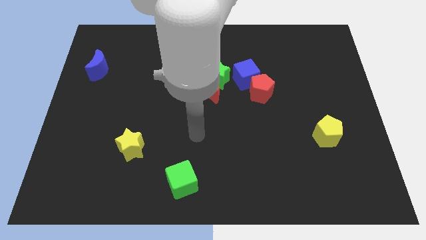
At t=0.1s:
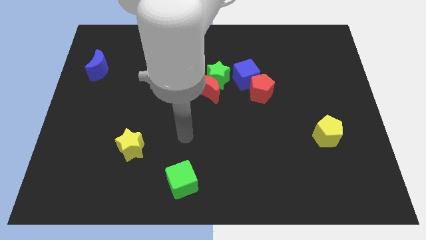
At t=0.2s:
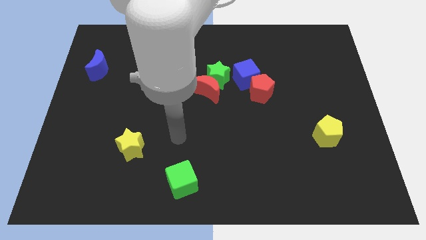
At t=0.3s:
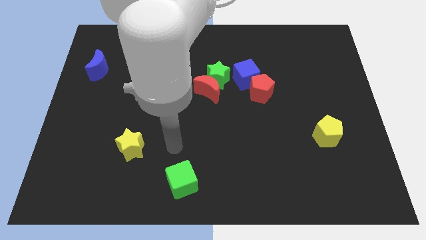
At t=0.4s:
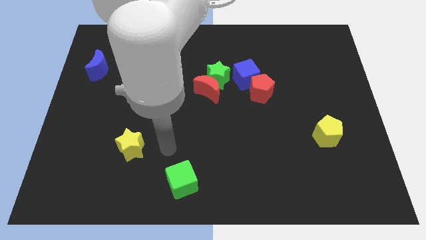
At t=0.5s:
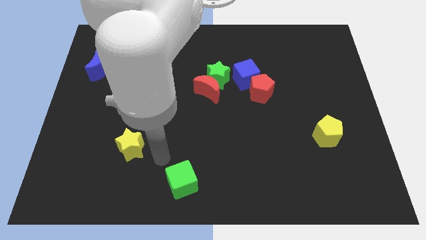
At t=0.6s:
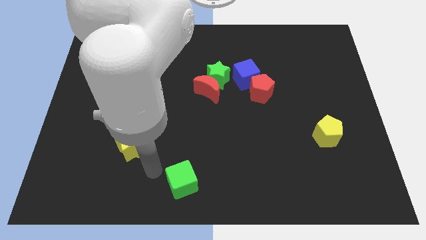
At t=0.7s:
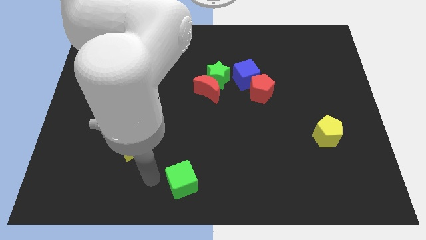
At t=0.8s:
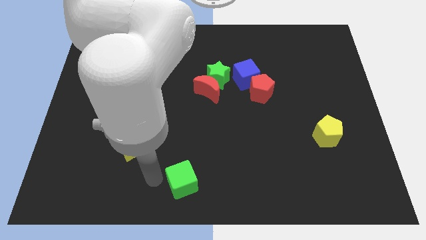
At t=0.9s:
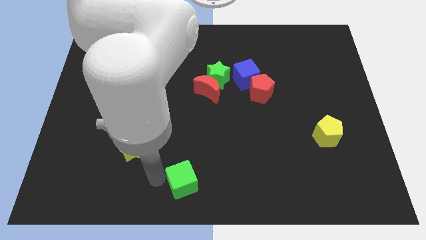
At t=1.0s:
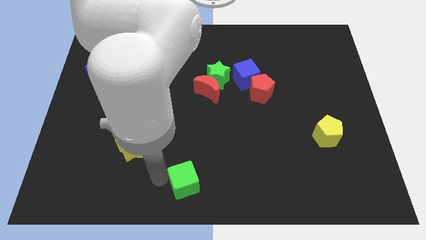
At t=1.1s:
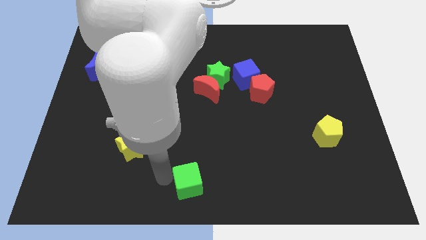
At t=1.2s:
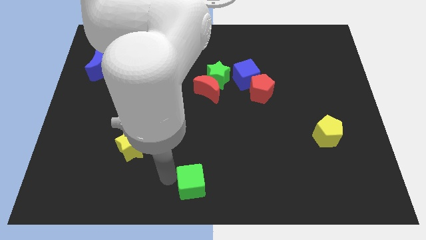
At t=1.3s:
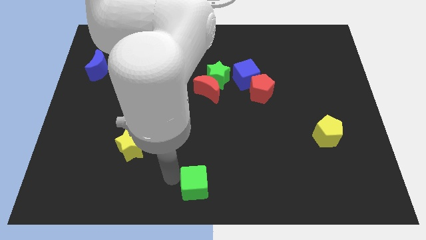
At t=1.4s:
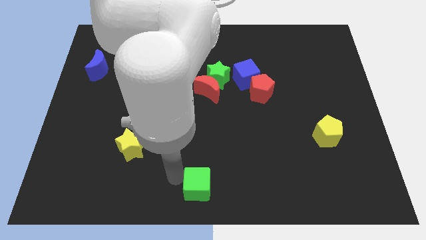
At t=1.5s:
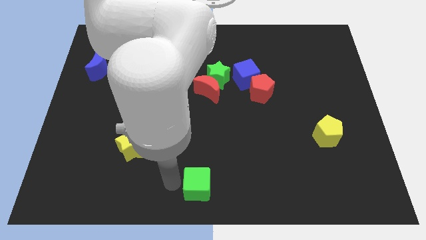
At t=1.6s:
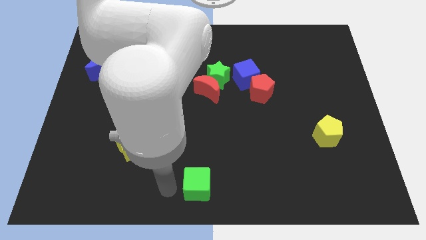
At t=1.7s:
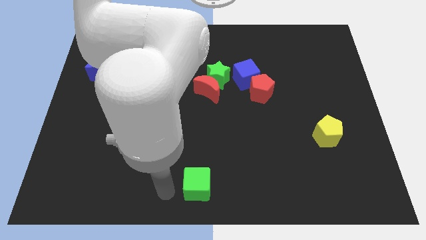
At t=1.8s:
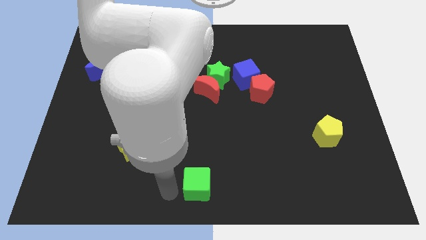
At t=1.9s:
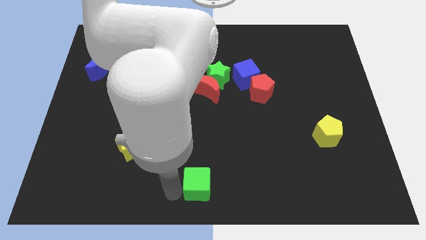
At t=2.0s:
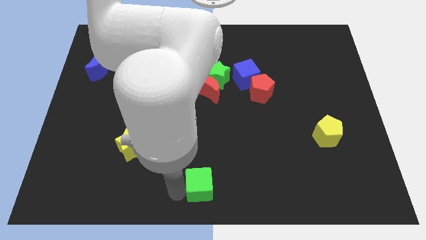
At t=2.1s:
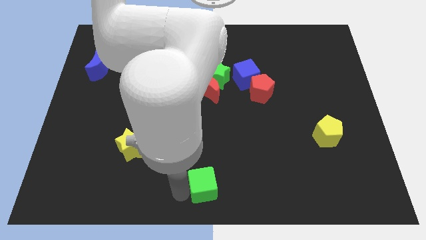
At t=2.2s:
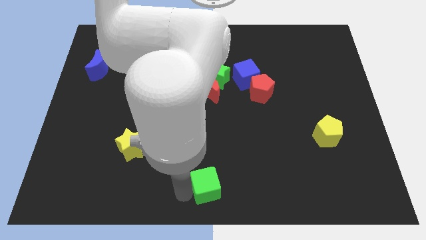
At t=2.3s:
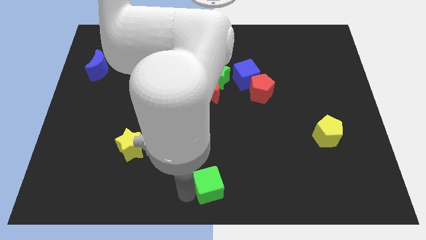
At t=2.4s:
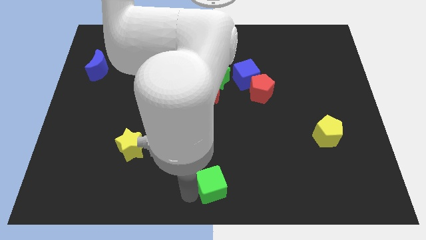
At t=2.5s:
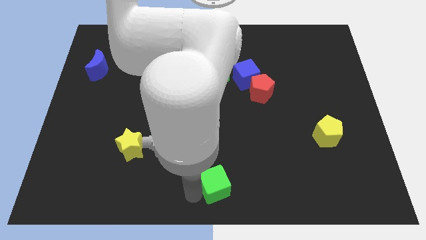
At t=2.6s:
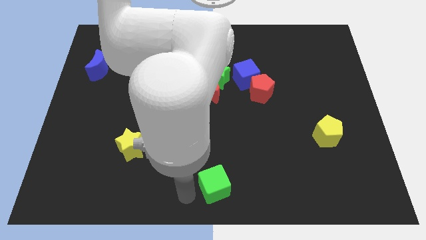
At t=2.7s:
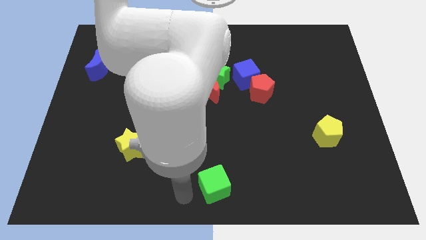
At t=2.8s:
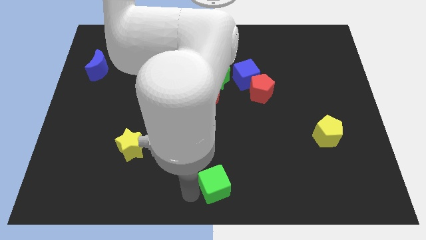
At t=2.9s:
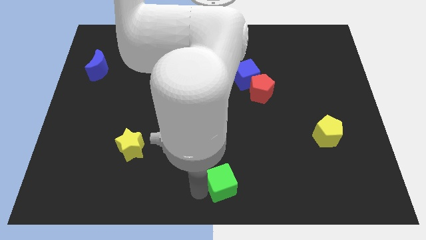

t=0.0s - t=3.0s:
push the green cube right somewhat

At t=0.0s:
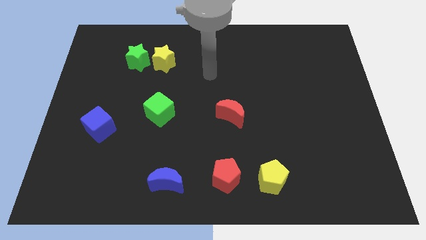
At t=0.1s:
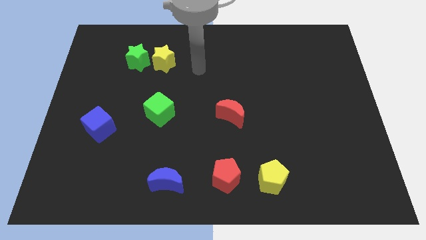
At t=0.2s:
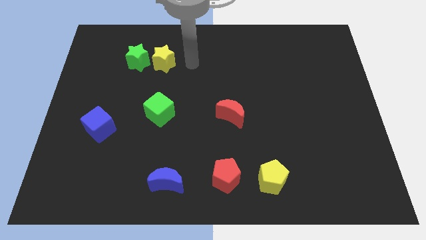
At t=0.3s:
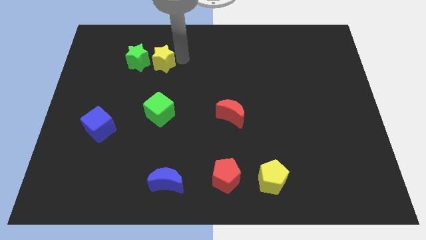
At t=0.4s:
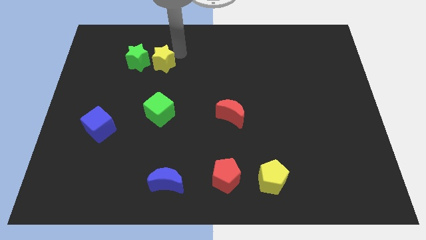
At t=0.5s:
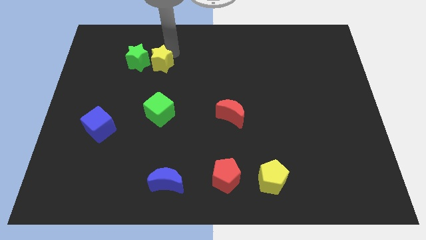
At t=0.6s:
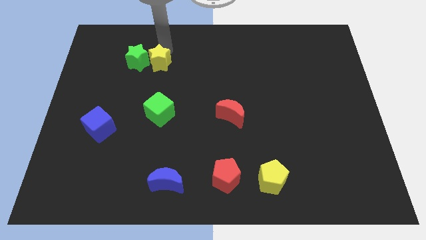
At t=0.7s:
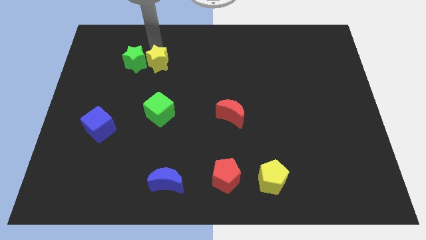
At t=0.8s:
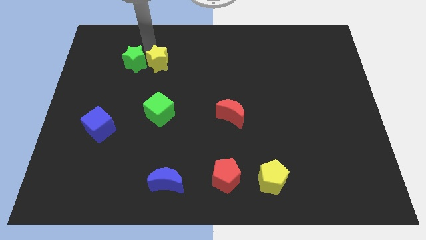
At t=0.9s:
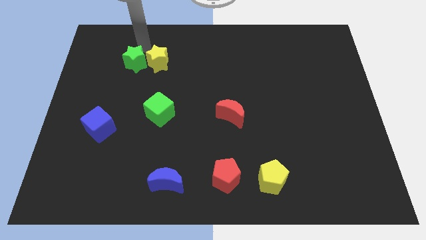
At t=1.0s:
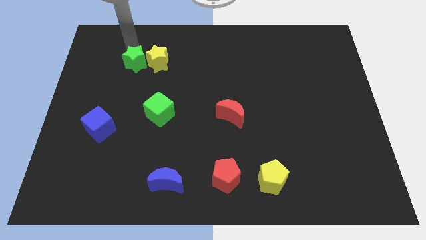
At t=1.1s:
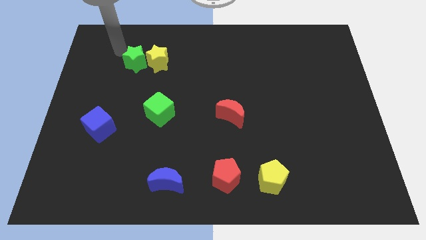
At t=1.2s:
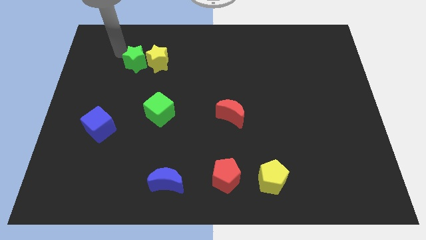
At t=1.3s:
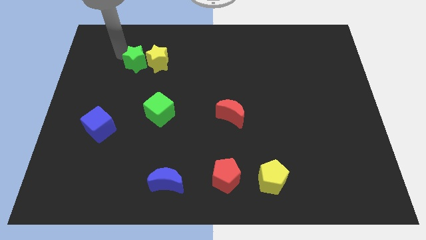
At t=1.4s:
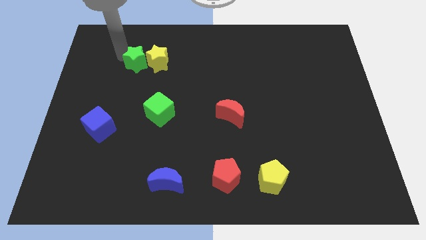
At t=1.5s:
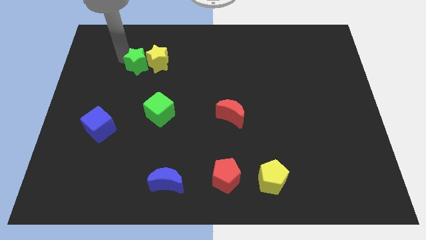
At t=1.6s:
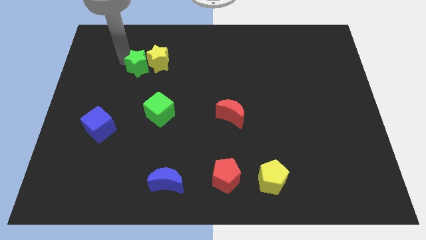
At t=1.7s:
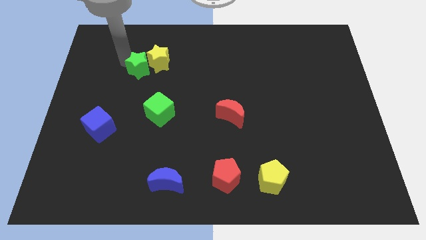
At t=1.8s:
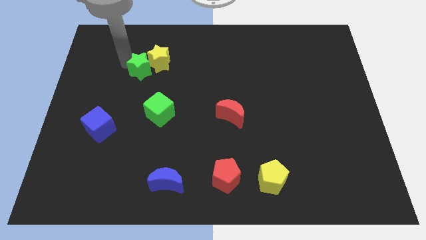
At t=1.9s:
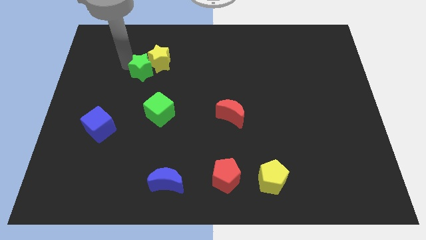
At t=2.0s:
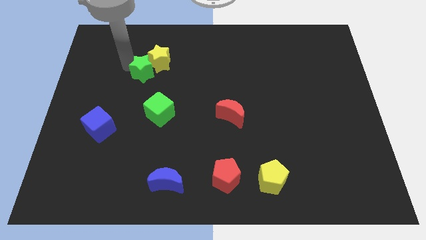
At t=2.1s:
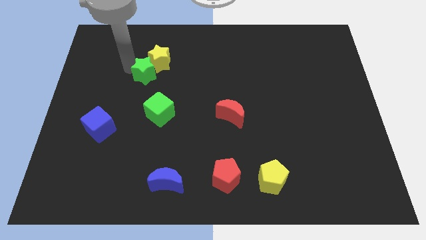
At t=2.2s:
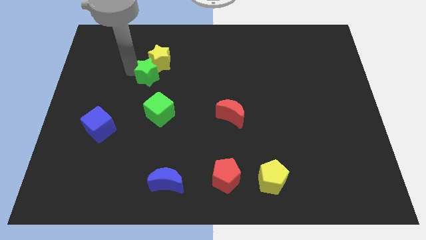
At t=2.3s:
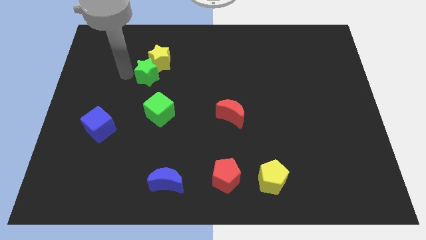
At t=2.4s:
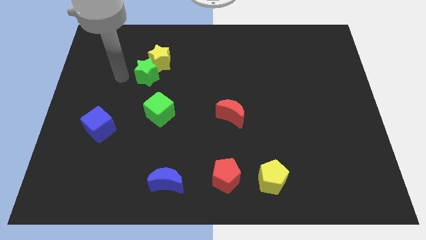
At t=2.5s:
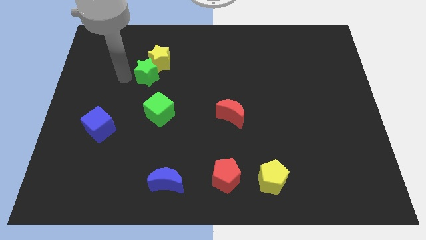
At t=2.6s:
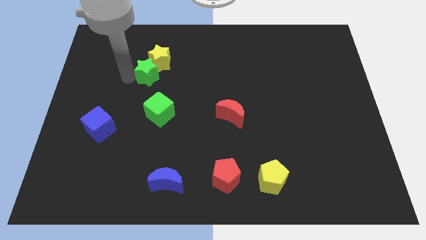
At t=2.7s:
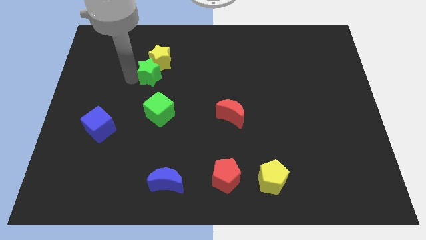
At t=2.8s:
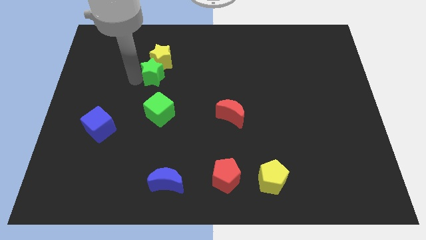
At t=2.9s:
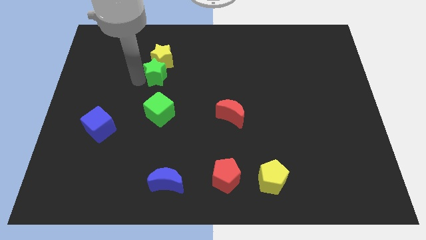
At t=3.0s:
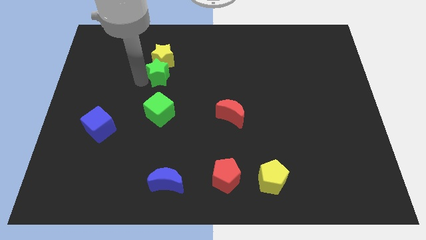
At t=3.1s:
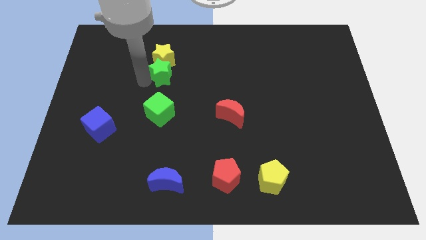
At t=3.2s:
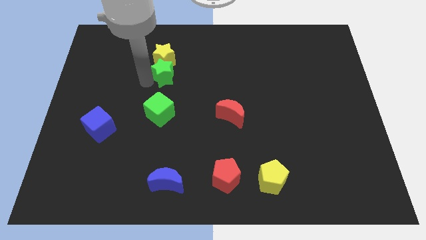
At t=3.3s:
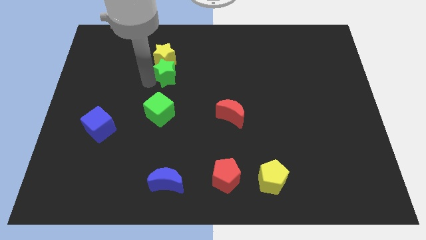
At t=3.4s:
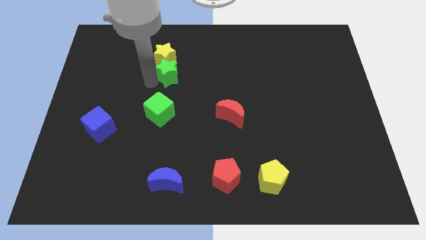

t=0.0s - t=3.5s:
push the green star to the right a little bit

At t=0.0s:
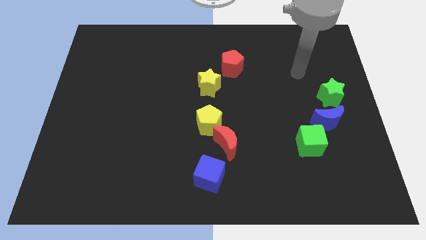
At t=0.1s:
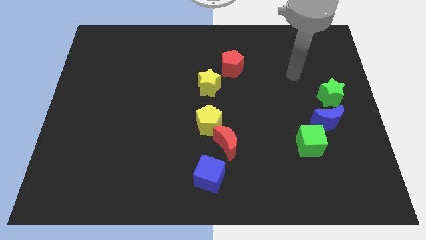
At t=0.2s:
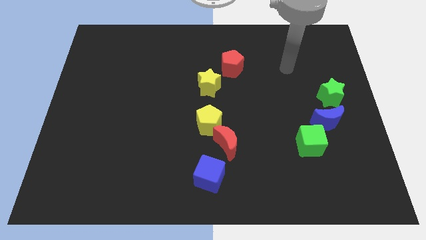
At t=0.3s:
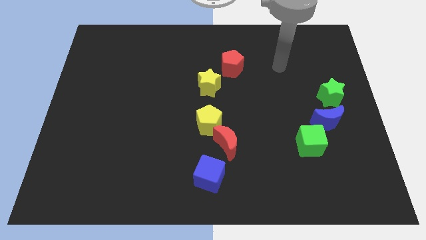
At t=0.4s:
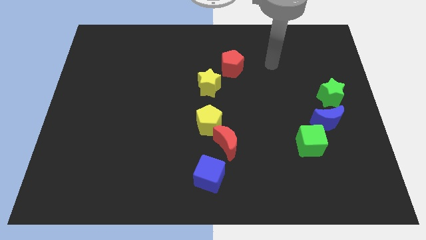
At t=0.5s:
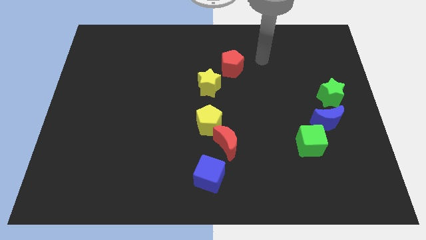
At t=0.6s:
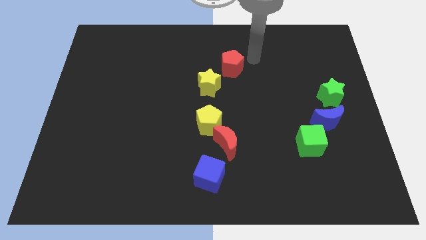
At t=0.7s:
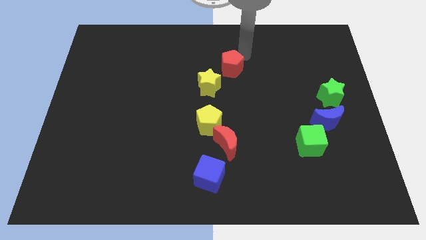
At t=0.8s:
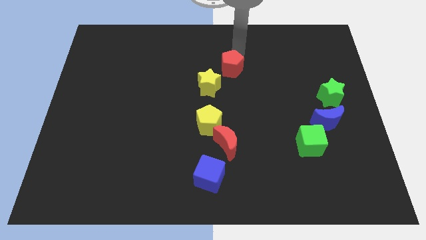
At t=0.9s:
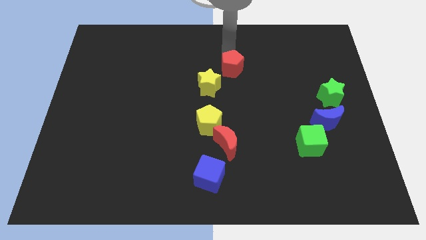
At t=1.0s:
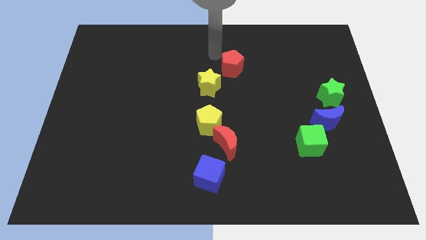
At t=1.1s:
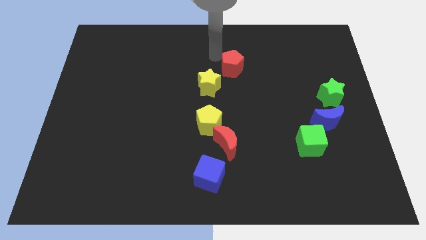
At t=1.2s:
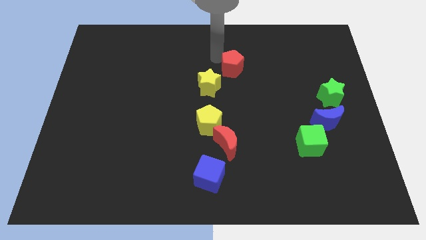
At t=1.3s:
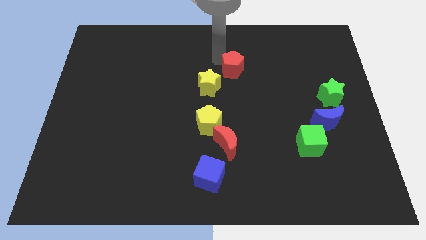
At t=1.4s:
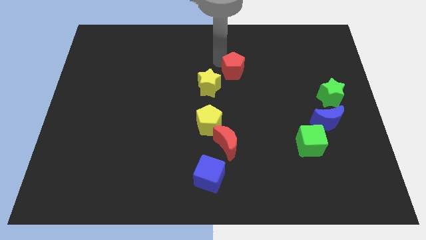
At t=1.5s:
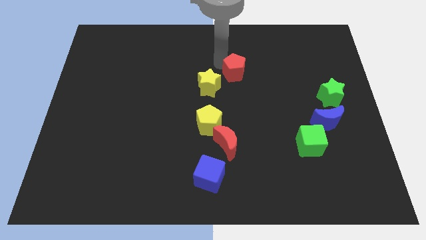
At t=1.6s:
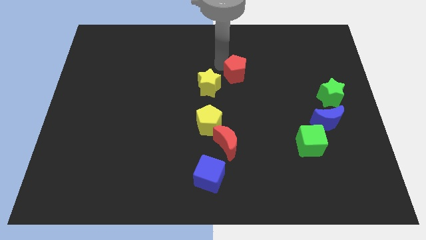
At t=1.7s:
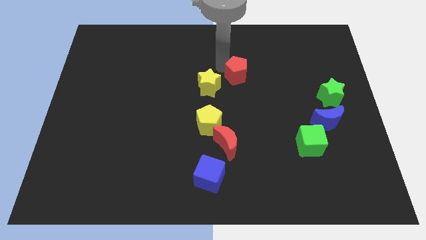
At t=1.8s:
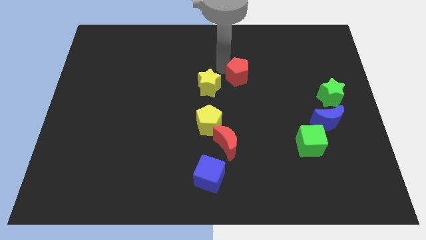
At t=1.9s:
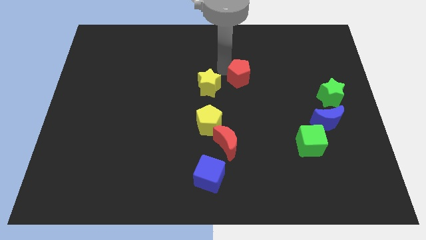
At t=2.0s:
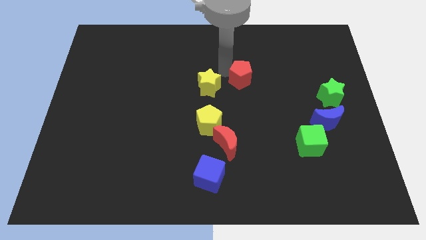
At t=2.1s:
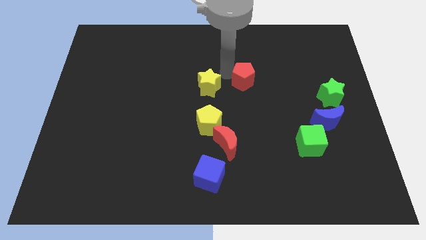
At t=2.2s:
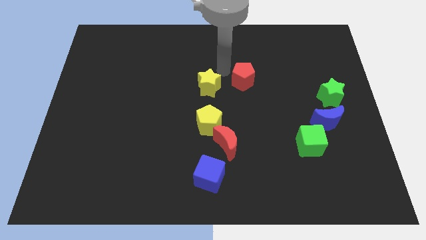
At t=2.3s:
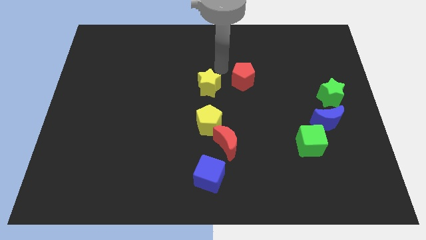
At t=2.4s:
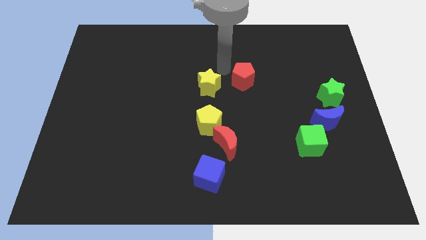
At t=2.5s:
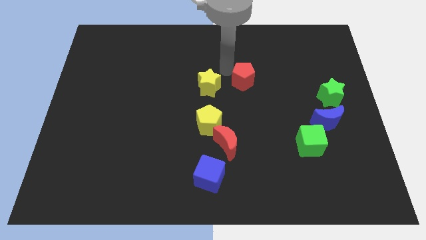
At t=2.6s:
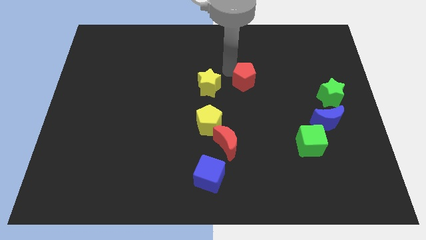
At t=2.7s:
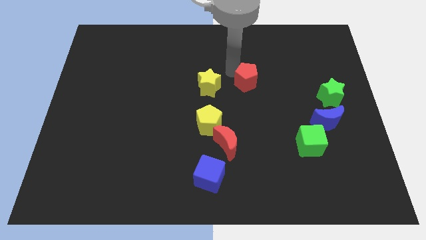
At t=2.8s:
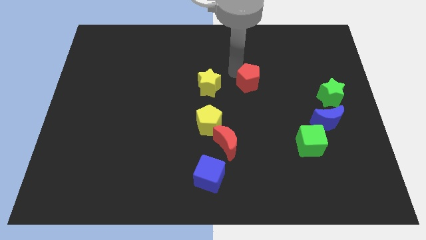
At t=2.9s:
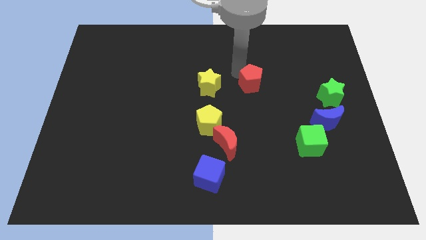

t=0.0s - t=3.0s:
push the red pentagon a little down and to the right
